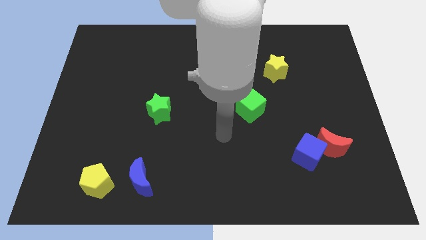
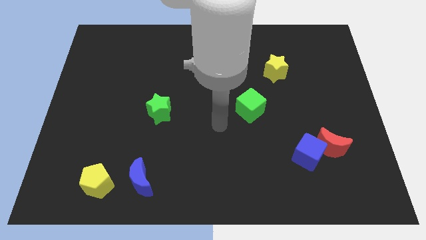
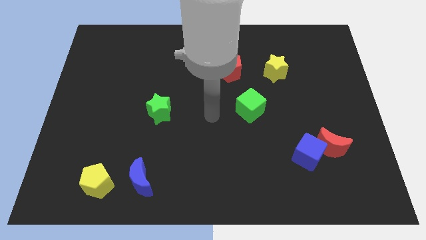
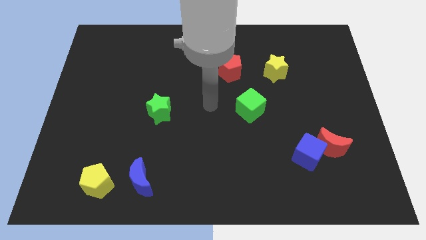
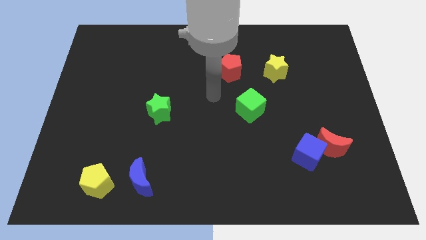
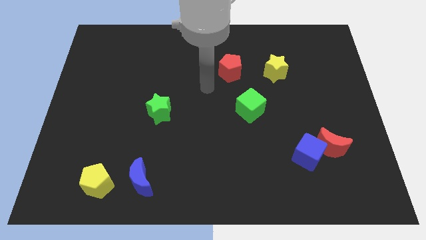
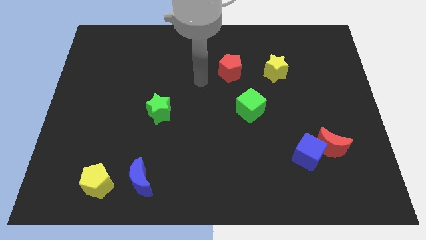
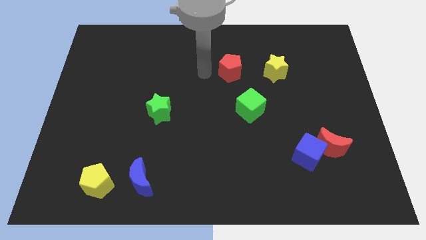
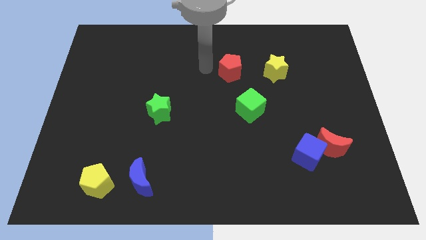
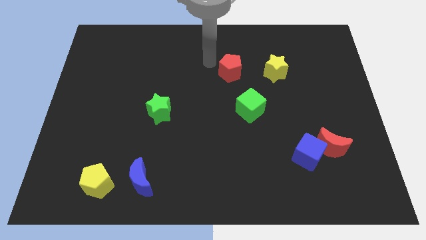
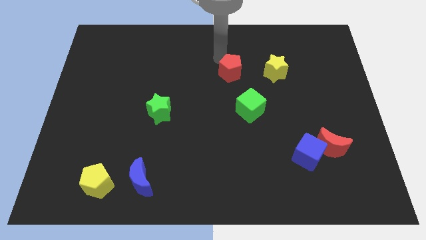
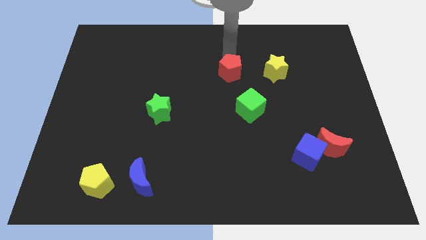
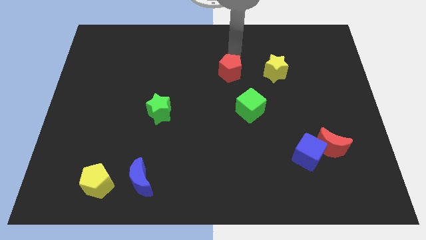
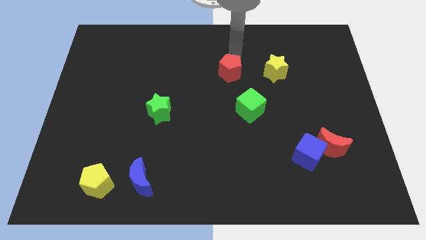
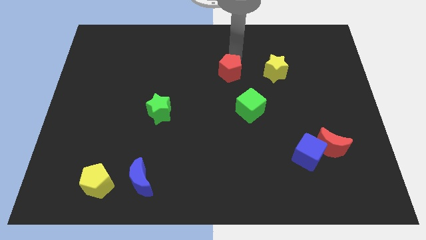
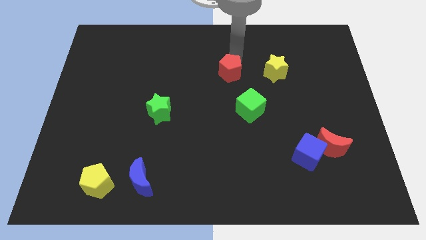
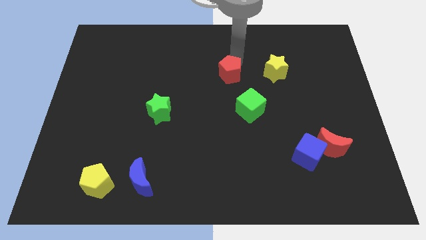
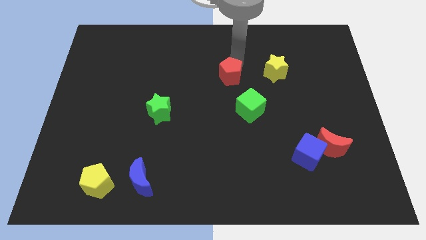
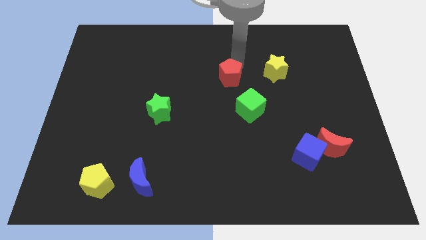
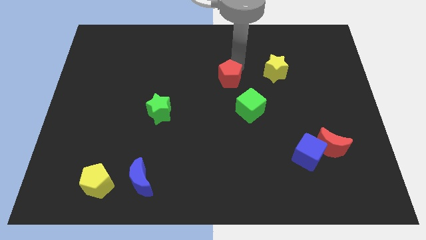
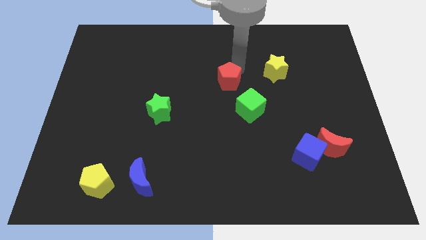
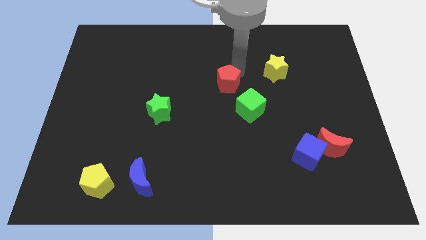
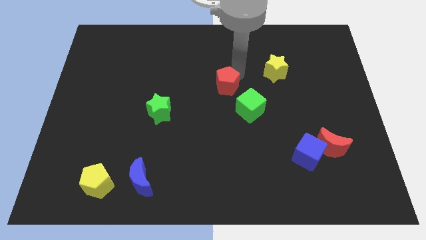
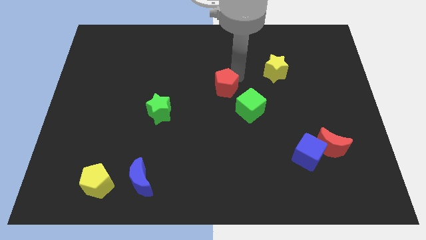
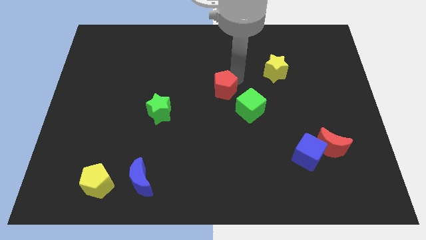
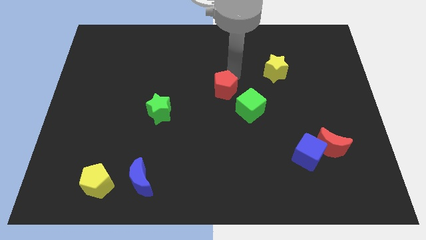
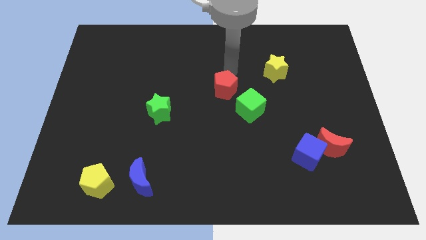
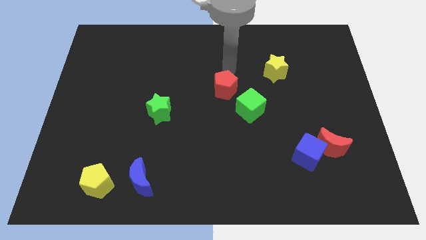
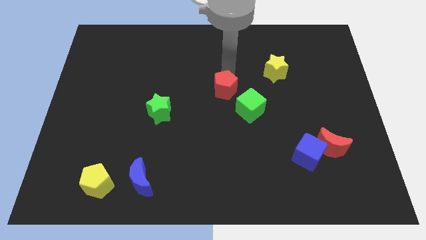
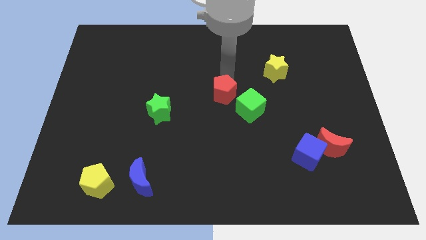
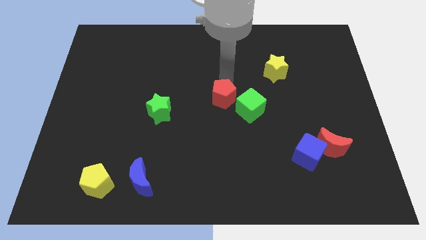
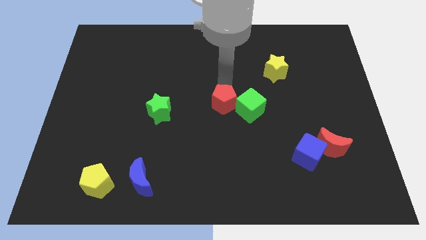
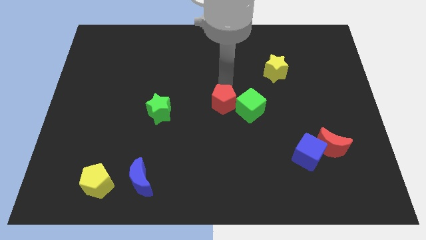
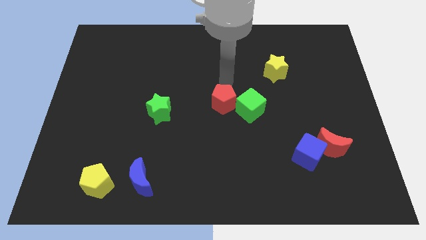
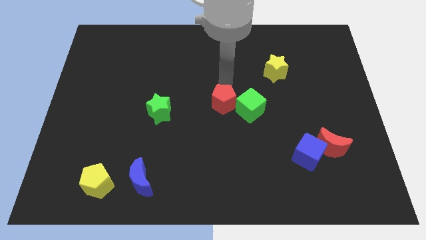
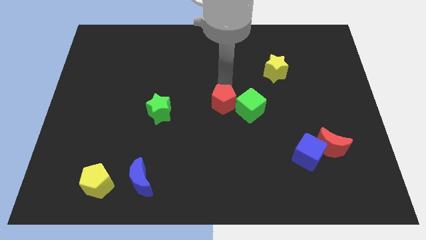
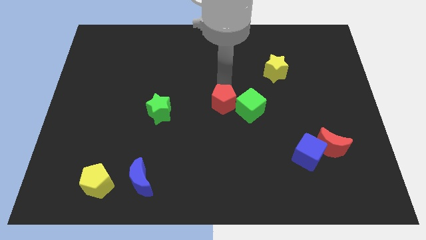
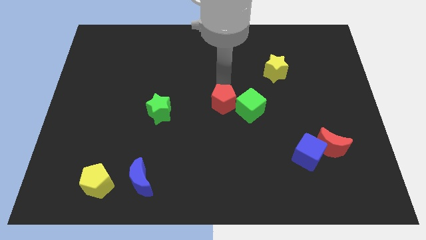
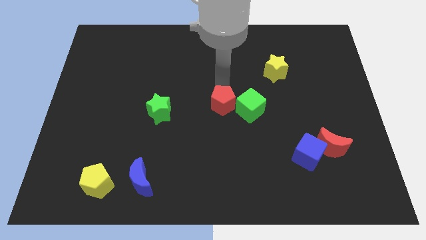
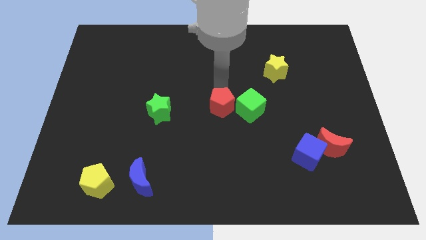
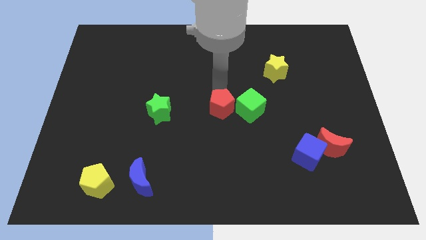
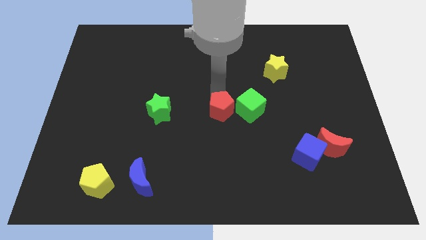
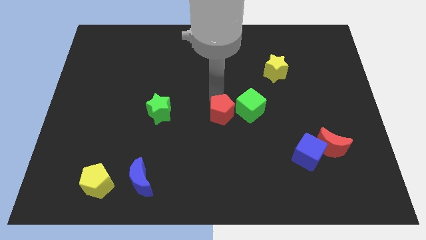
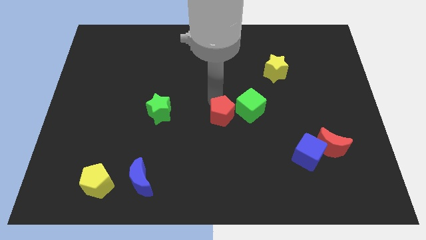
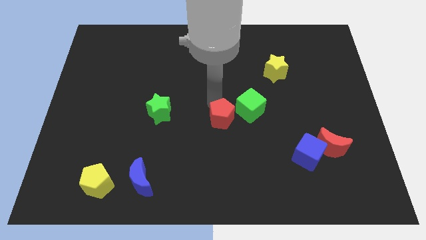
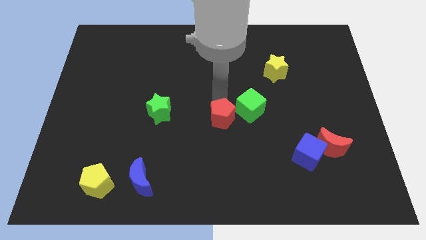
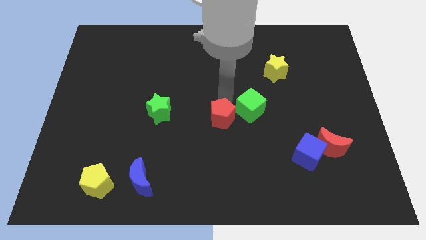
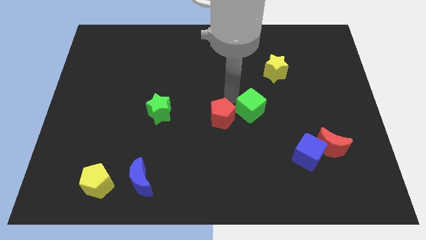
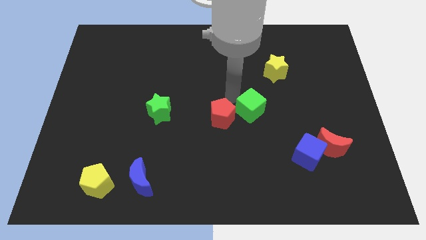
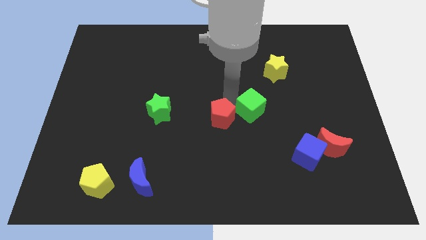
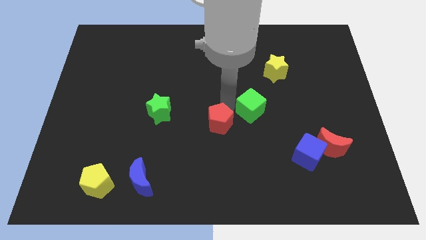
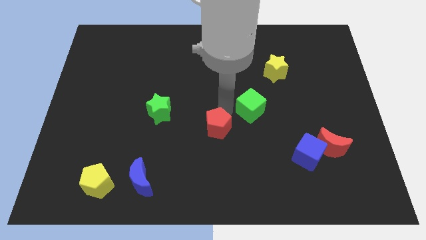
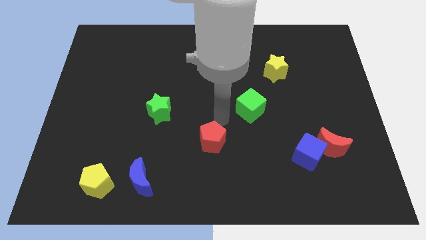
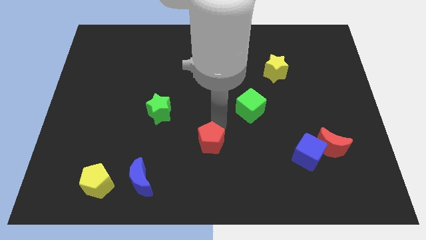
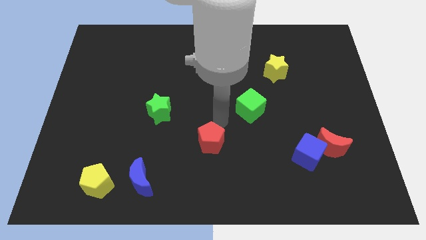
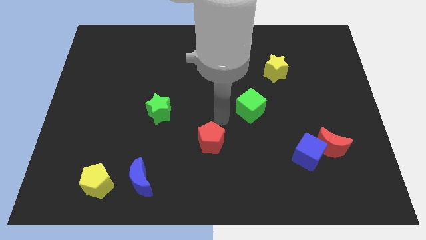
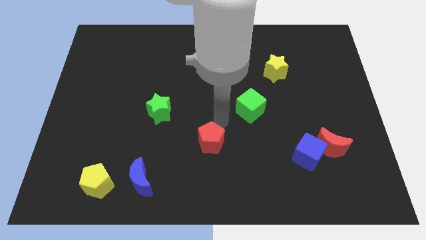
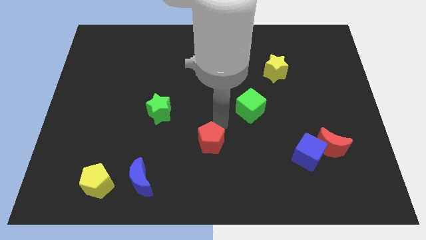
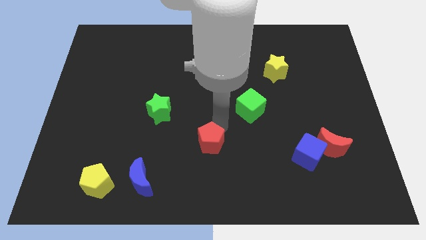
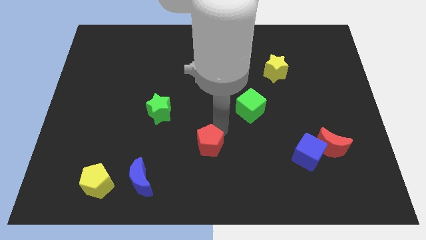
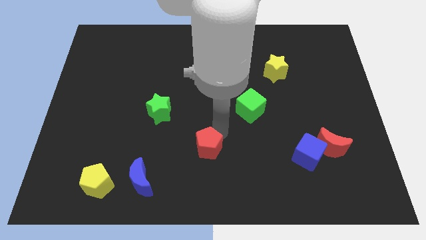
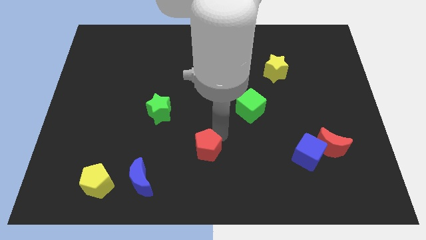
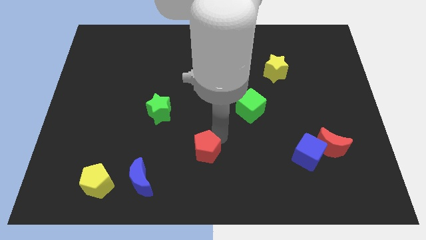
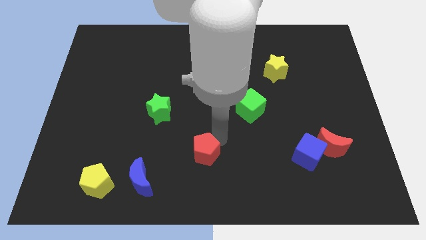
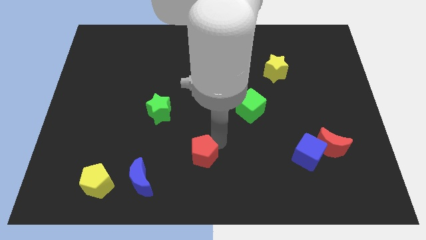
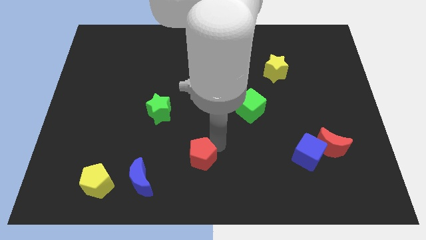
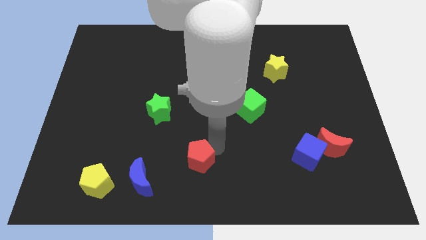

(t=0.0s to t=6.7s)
push the red pentagon just right of the blue moon
